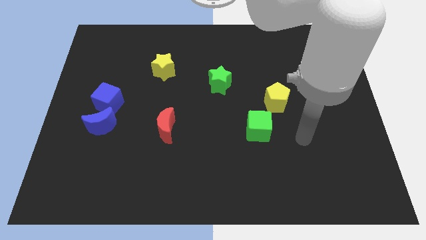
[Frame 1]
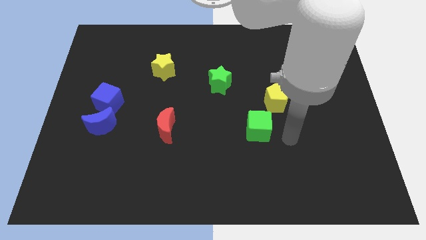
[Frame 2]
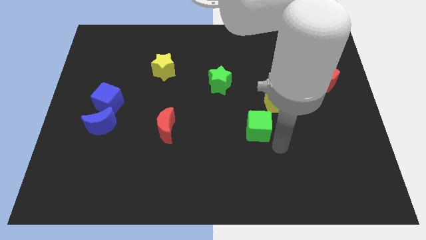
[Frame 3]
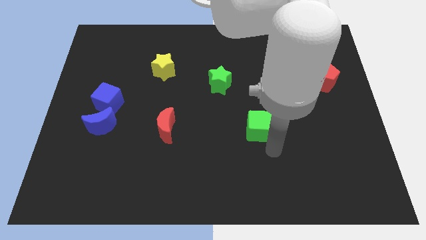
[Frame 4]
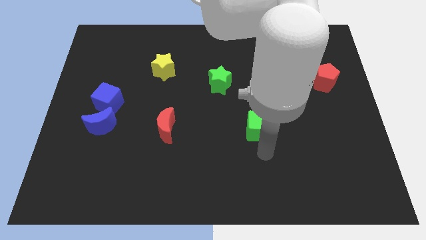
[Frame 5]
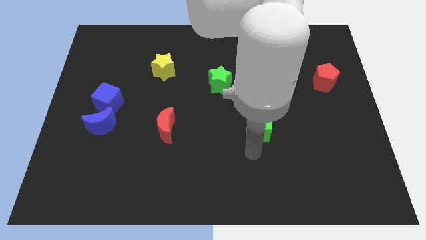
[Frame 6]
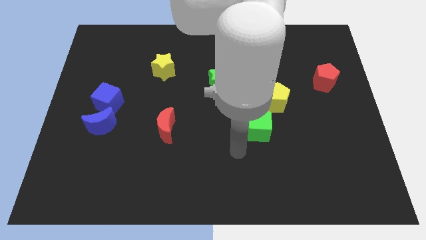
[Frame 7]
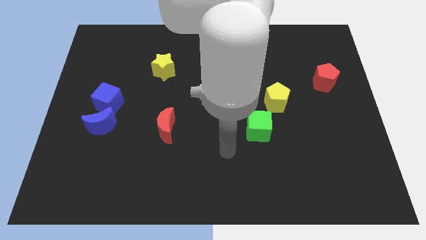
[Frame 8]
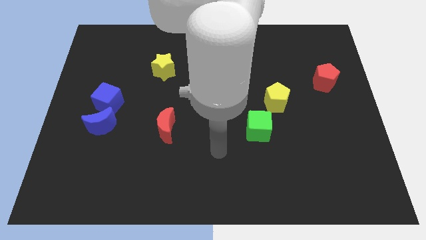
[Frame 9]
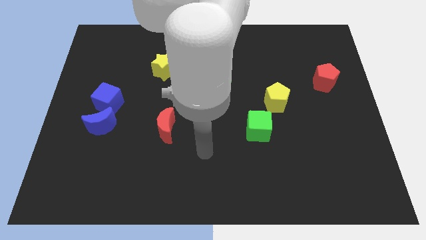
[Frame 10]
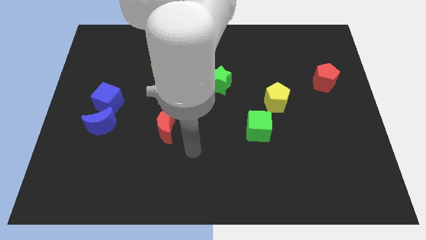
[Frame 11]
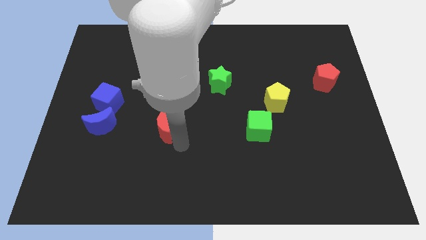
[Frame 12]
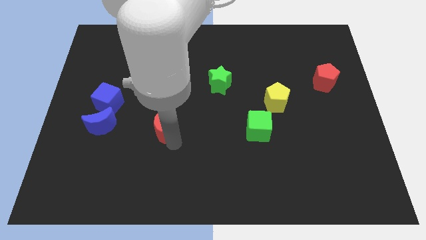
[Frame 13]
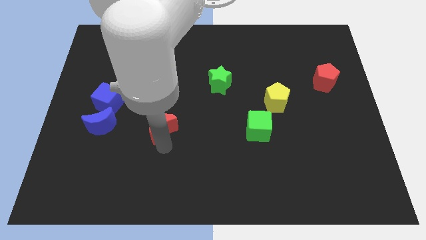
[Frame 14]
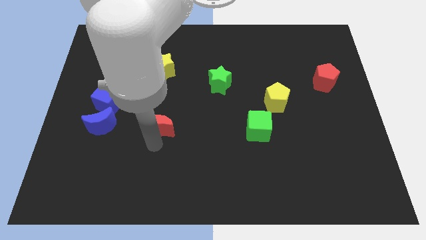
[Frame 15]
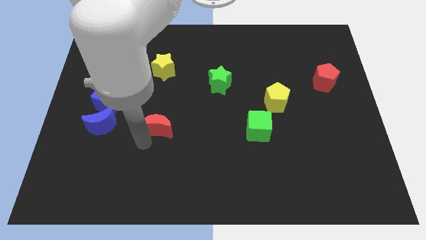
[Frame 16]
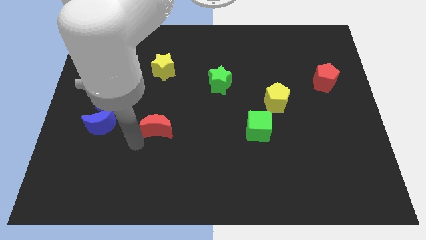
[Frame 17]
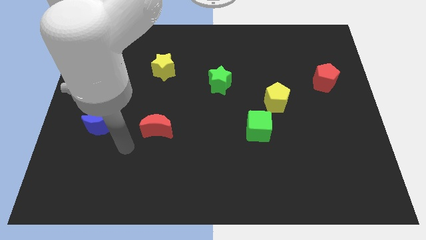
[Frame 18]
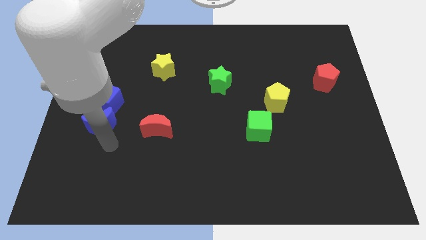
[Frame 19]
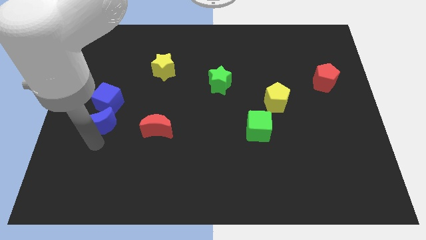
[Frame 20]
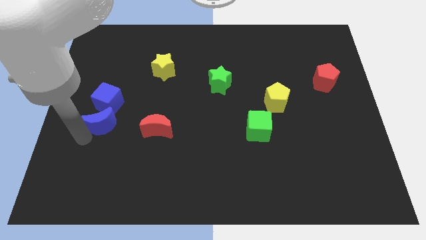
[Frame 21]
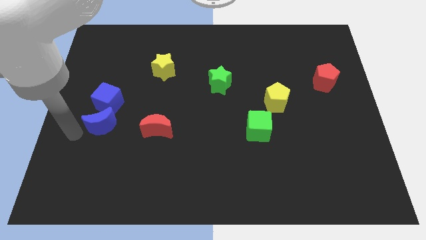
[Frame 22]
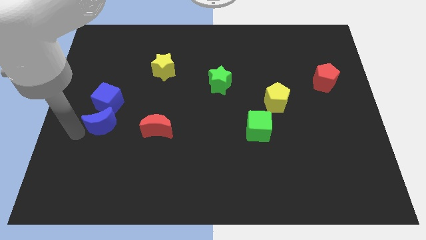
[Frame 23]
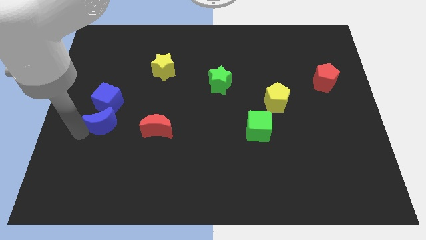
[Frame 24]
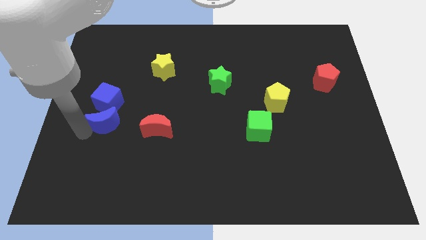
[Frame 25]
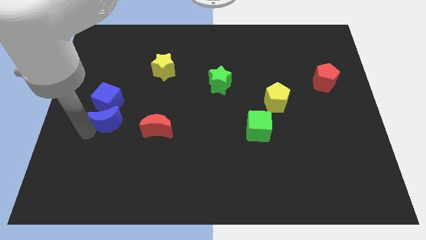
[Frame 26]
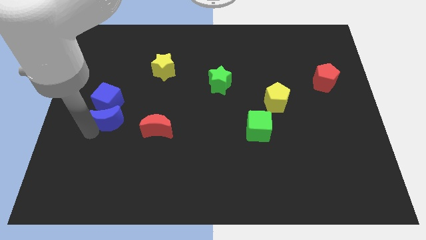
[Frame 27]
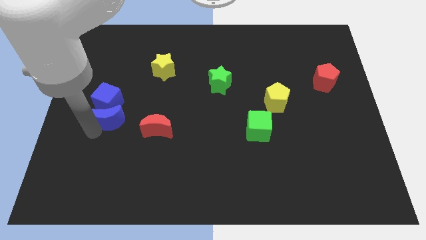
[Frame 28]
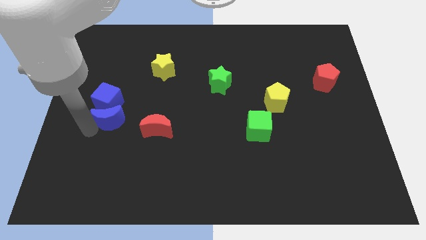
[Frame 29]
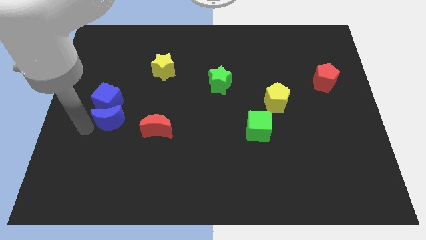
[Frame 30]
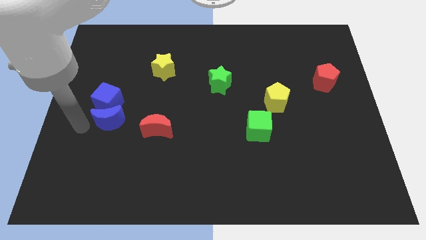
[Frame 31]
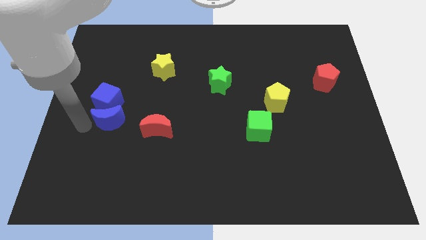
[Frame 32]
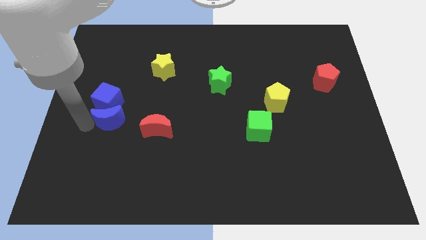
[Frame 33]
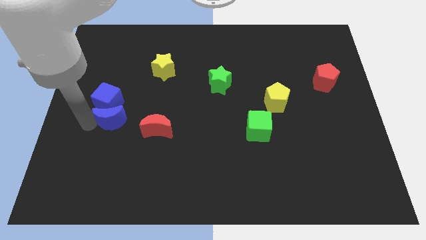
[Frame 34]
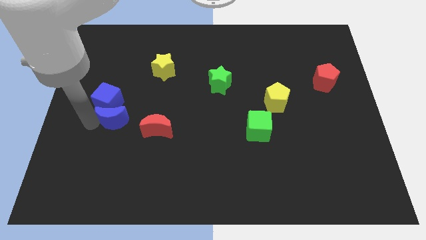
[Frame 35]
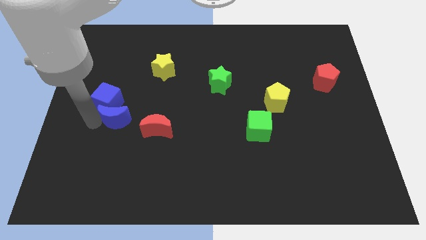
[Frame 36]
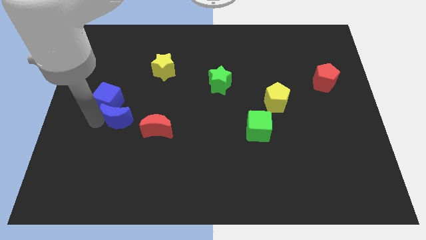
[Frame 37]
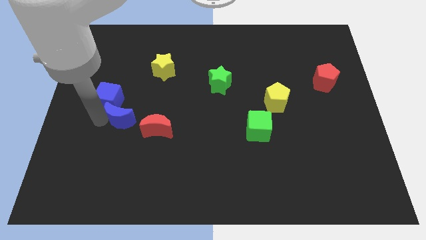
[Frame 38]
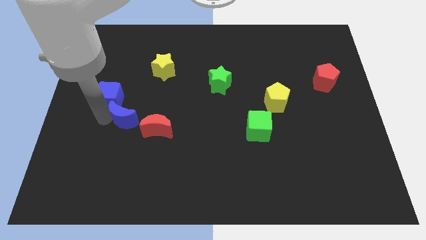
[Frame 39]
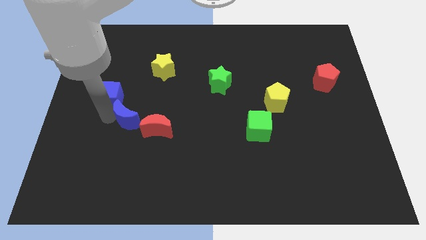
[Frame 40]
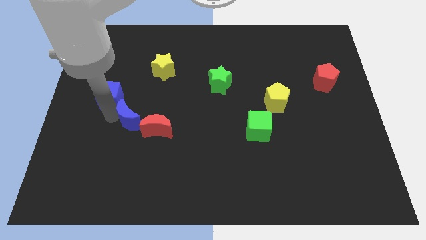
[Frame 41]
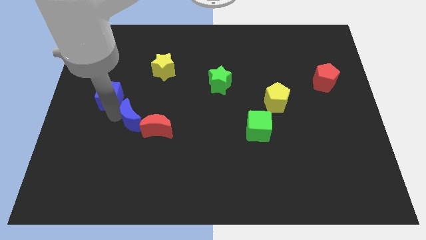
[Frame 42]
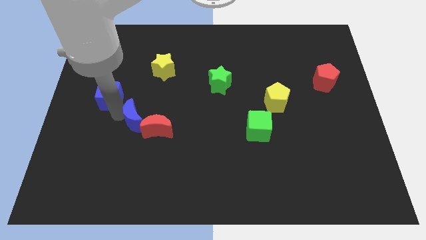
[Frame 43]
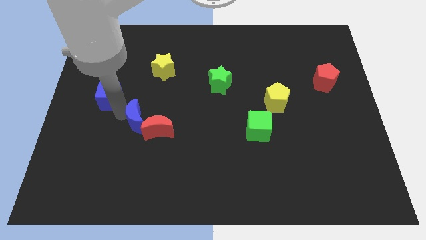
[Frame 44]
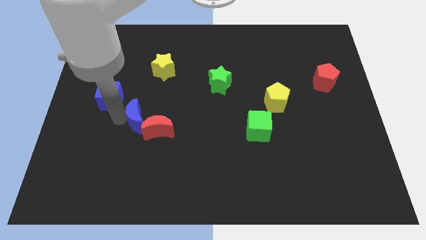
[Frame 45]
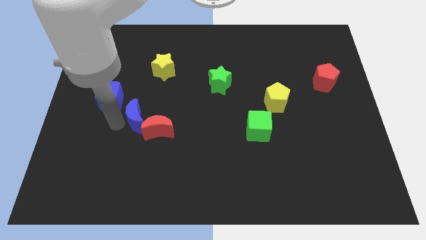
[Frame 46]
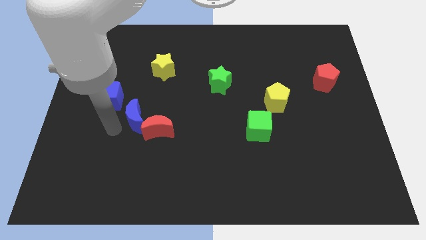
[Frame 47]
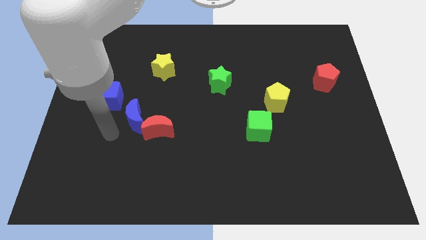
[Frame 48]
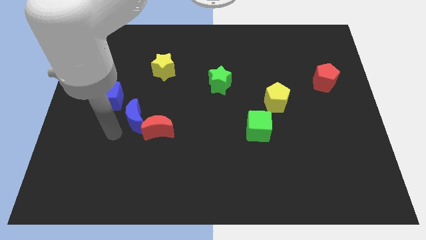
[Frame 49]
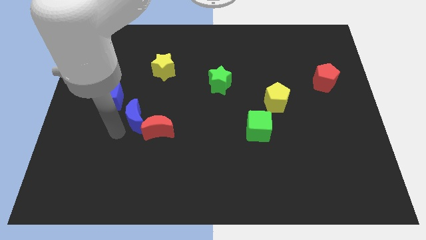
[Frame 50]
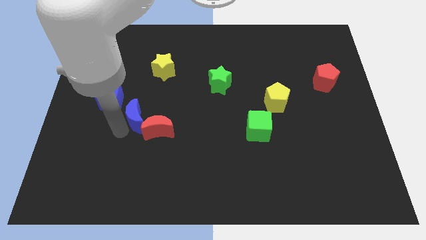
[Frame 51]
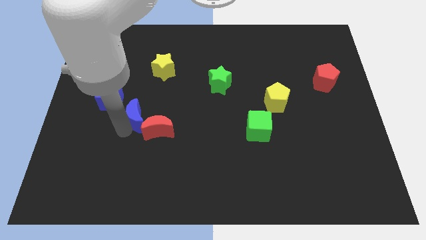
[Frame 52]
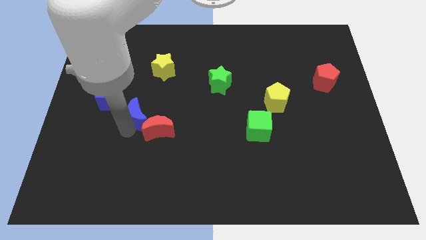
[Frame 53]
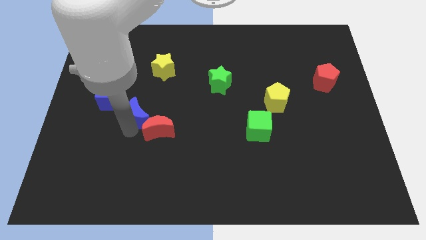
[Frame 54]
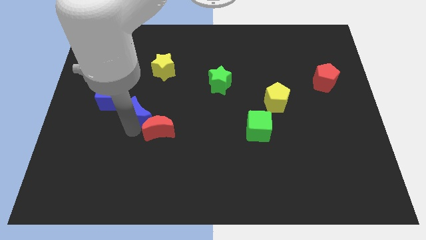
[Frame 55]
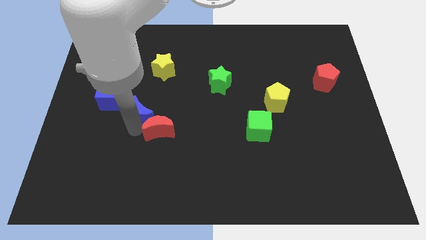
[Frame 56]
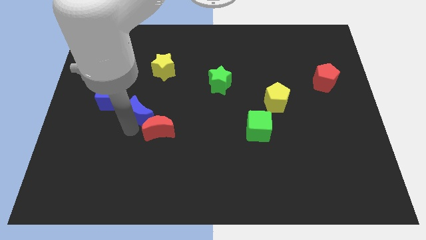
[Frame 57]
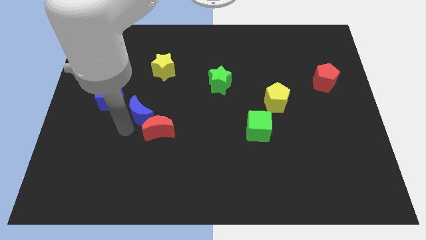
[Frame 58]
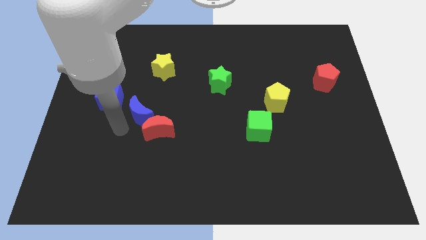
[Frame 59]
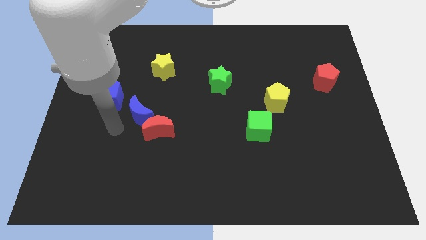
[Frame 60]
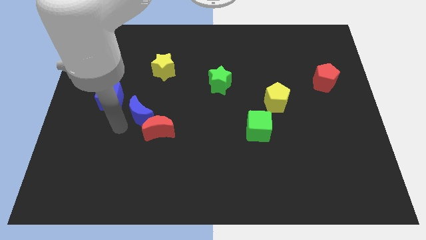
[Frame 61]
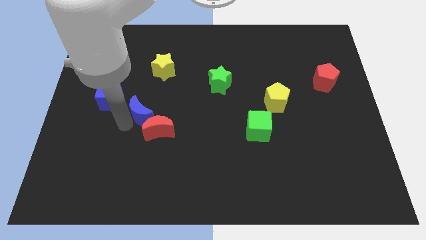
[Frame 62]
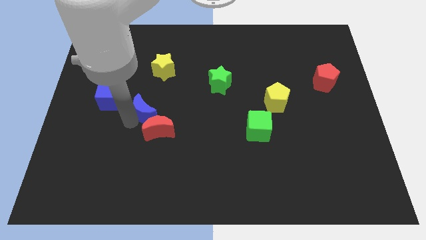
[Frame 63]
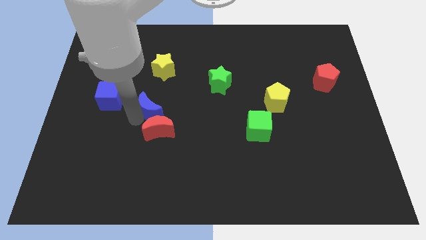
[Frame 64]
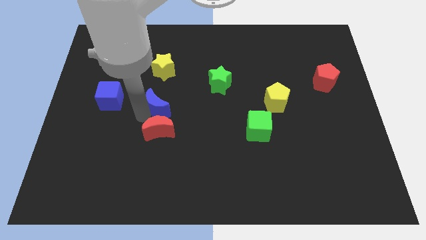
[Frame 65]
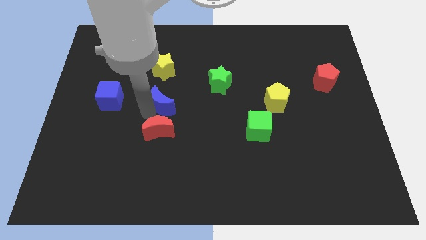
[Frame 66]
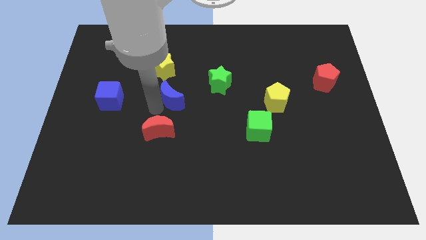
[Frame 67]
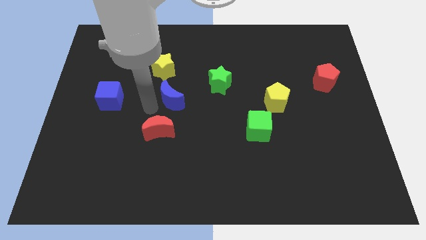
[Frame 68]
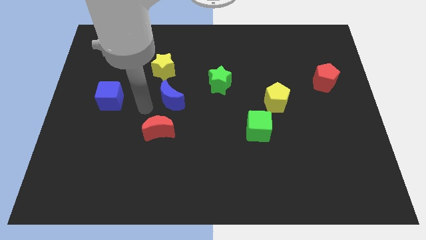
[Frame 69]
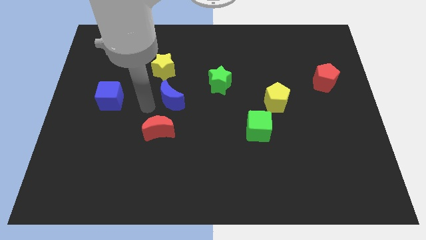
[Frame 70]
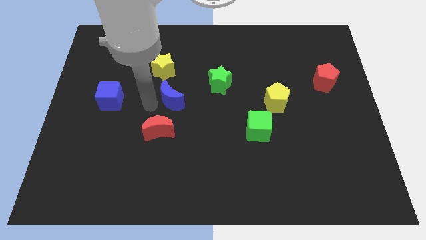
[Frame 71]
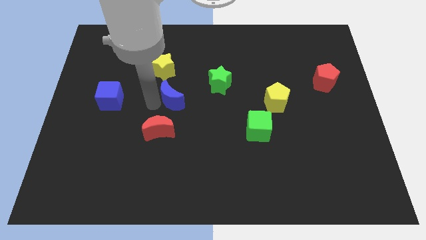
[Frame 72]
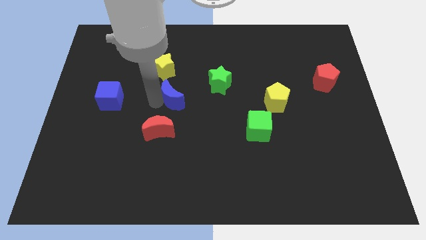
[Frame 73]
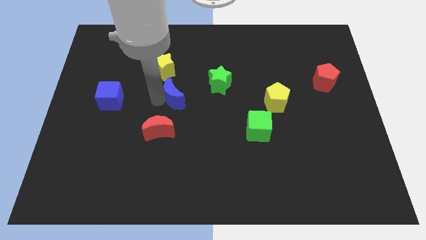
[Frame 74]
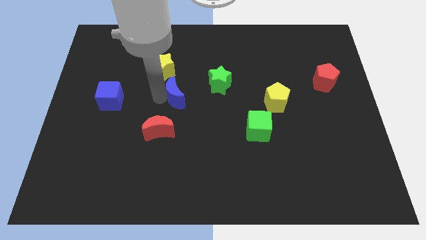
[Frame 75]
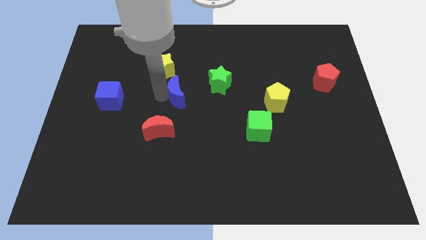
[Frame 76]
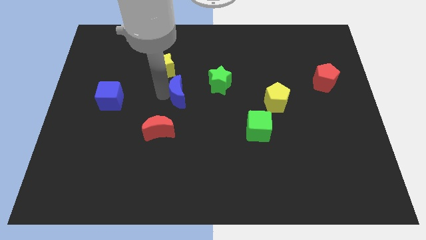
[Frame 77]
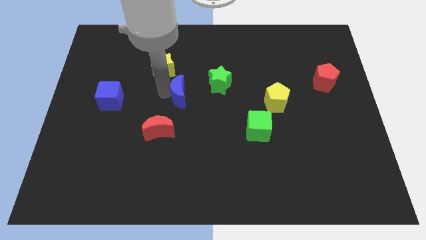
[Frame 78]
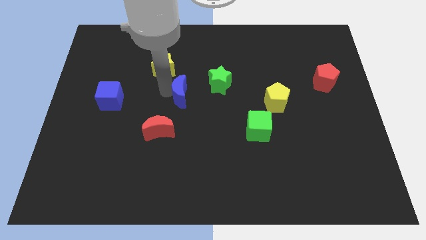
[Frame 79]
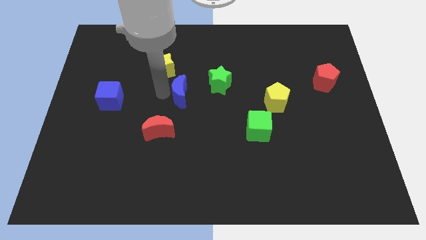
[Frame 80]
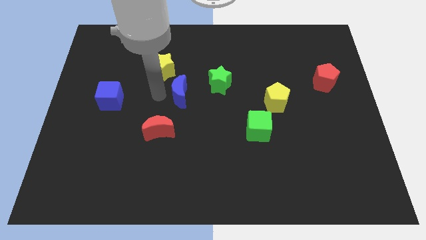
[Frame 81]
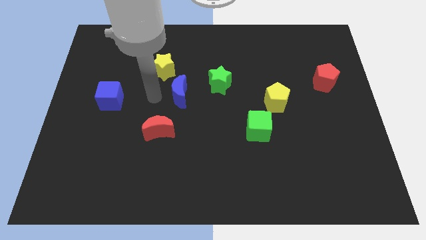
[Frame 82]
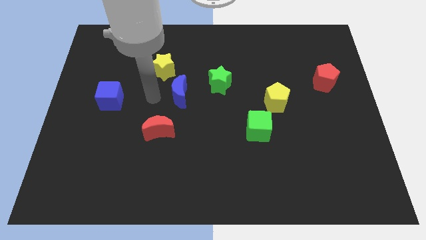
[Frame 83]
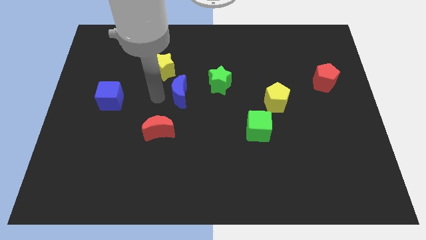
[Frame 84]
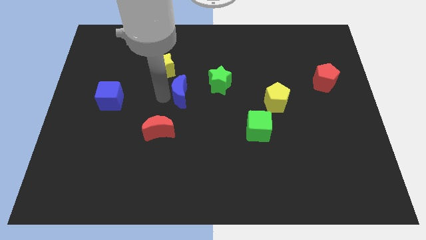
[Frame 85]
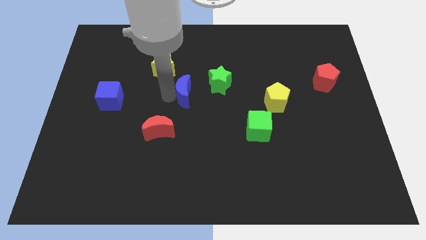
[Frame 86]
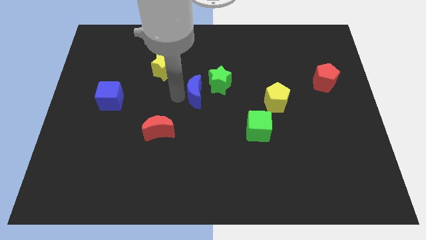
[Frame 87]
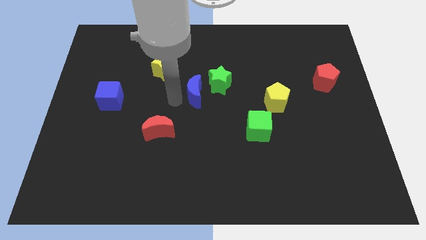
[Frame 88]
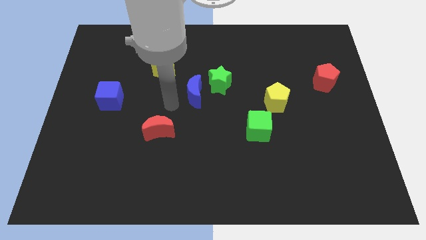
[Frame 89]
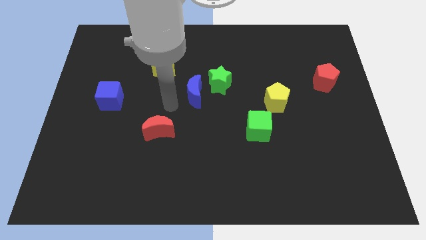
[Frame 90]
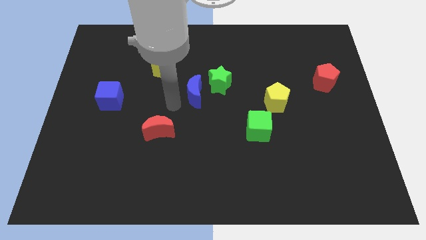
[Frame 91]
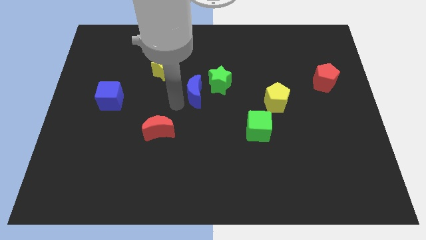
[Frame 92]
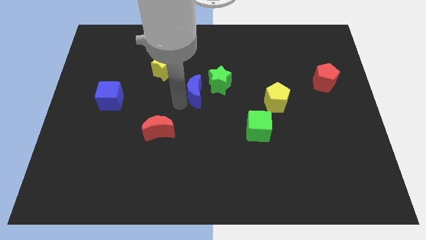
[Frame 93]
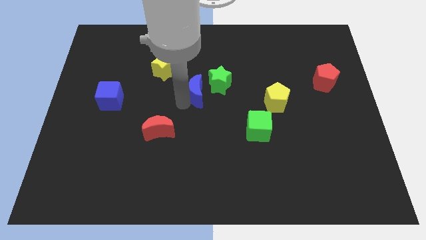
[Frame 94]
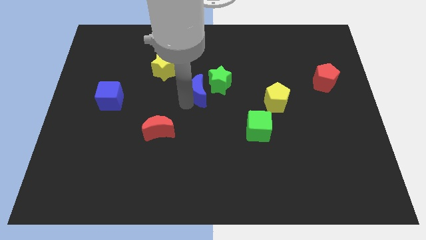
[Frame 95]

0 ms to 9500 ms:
slide the blue moon to the green star
